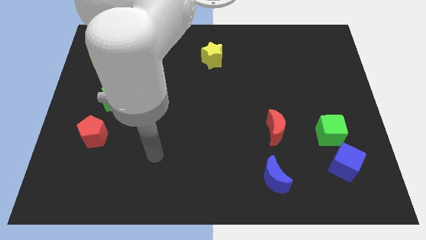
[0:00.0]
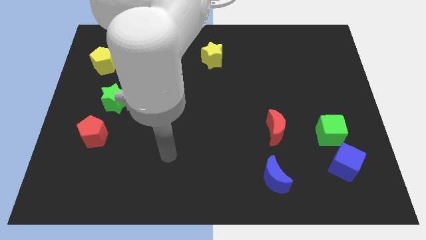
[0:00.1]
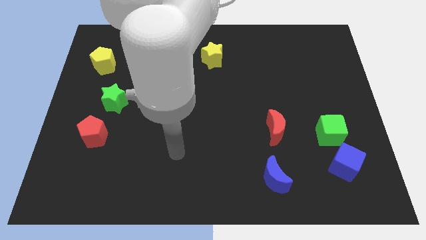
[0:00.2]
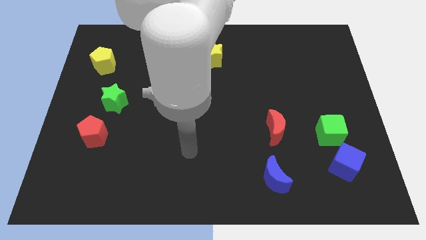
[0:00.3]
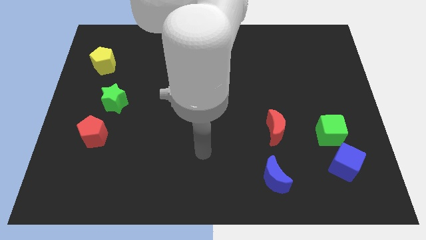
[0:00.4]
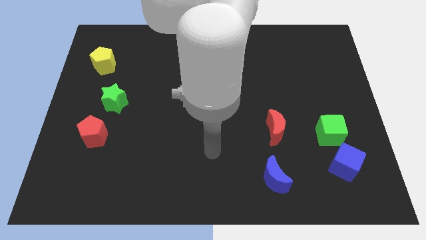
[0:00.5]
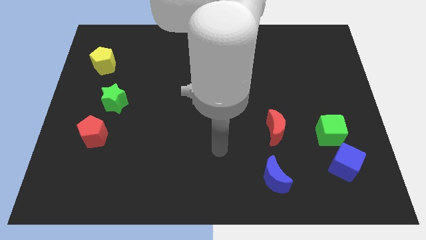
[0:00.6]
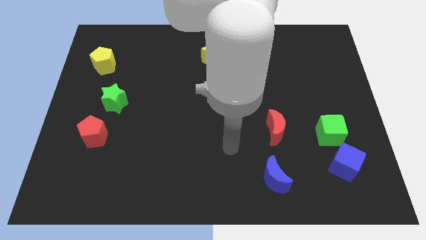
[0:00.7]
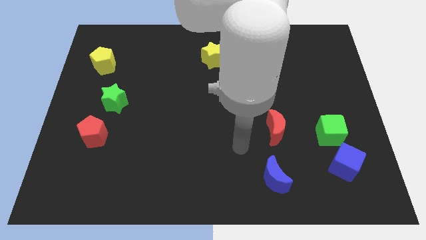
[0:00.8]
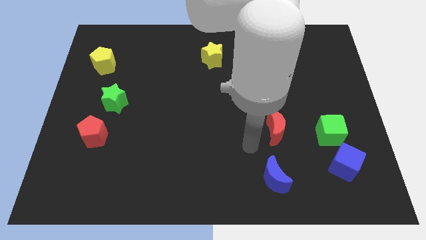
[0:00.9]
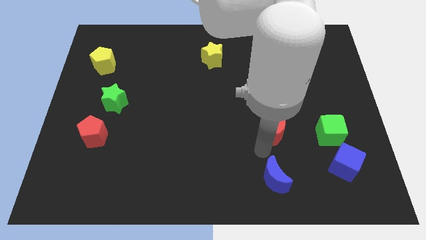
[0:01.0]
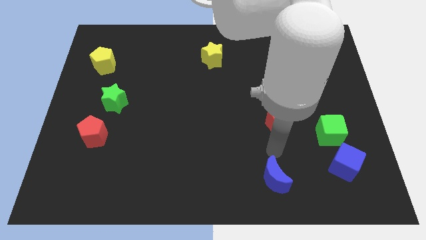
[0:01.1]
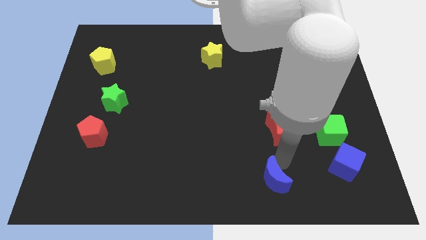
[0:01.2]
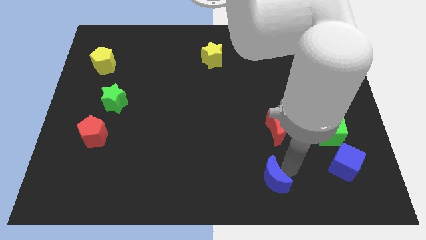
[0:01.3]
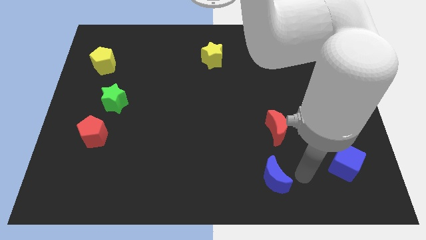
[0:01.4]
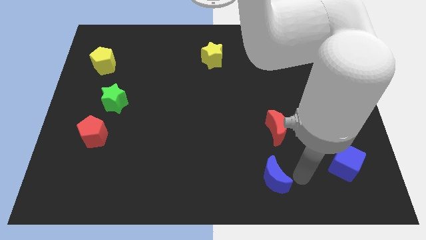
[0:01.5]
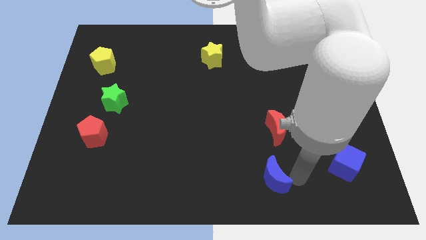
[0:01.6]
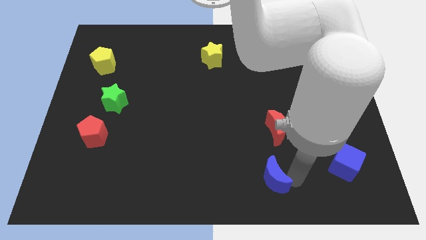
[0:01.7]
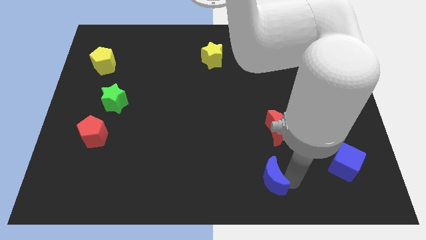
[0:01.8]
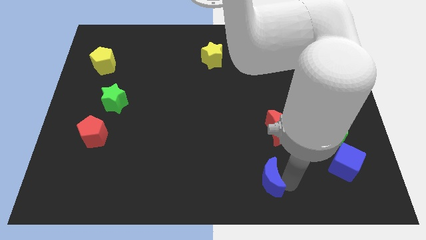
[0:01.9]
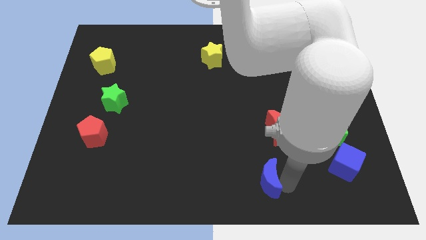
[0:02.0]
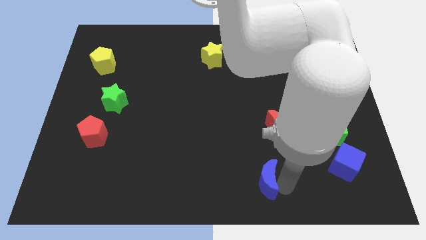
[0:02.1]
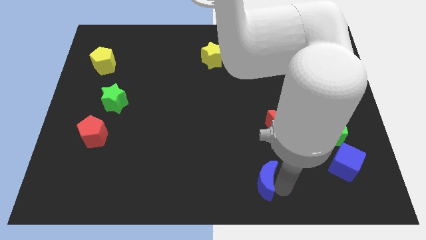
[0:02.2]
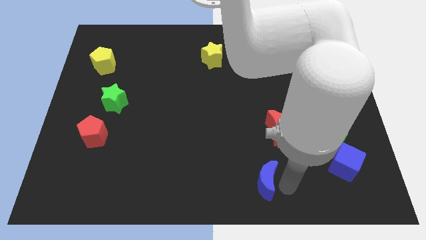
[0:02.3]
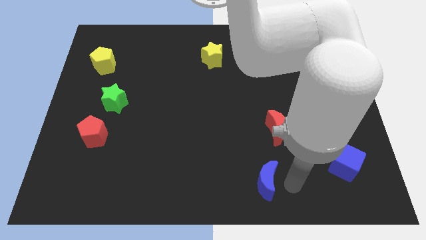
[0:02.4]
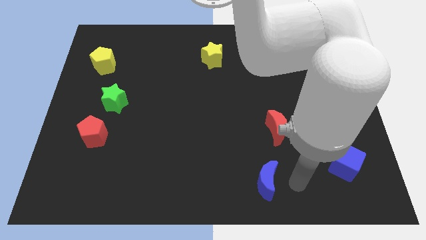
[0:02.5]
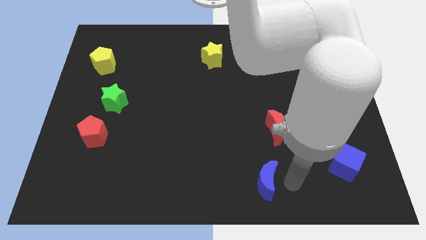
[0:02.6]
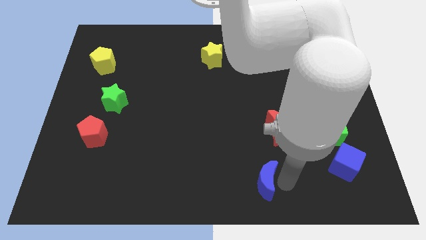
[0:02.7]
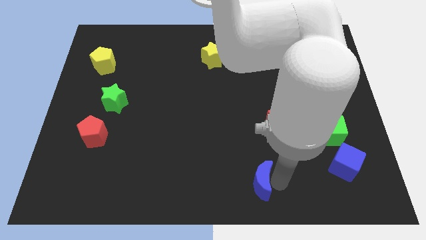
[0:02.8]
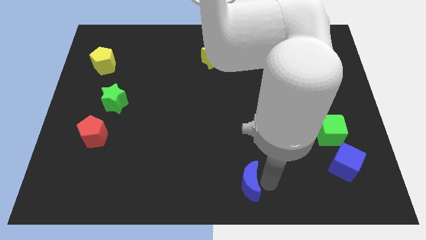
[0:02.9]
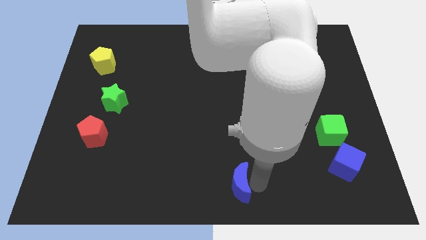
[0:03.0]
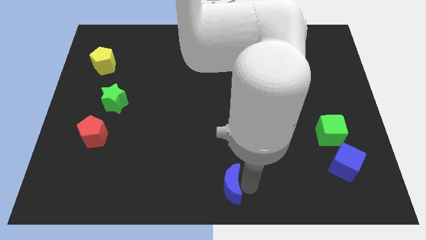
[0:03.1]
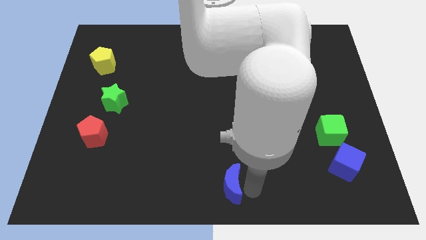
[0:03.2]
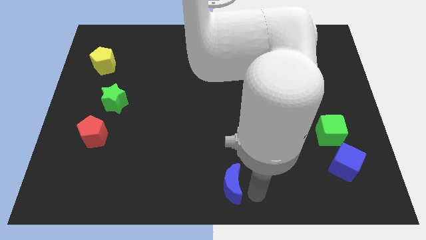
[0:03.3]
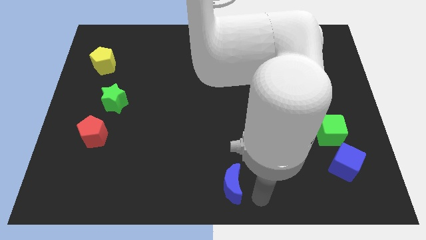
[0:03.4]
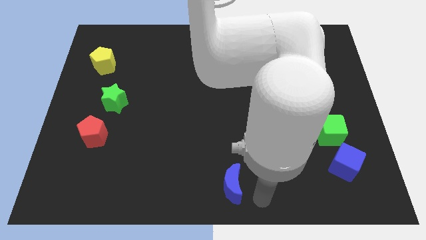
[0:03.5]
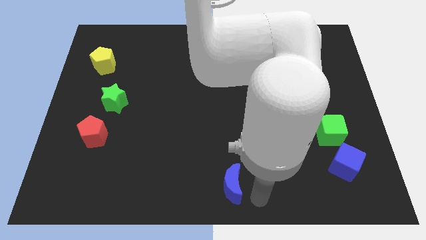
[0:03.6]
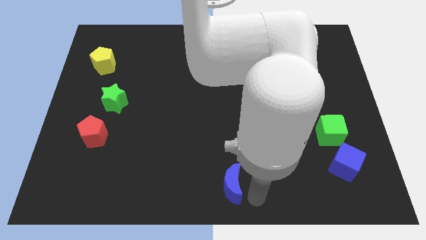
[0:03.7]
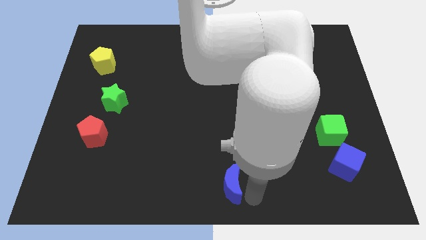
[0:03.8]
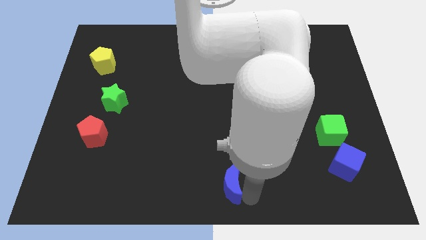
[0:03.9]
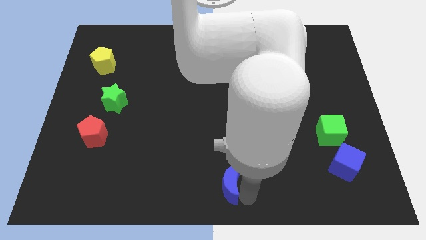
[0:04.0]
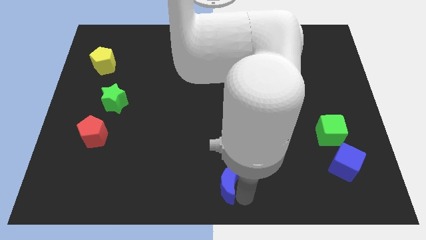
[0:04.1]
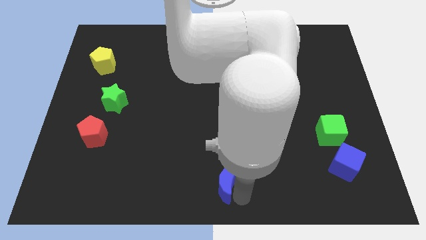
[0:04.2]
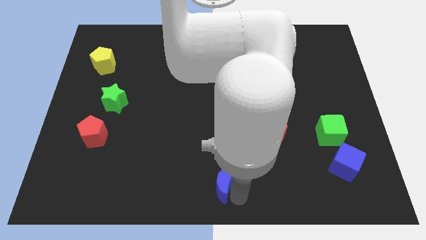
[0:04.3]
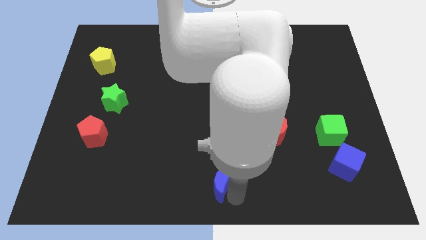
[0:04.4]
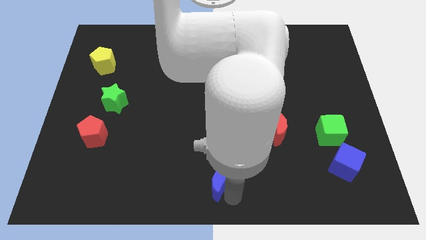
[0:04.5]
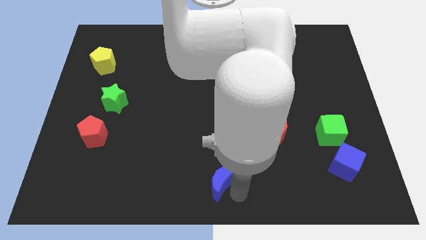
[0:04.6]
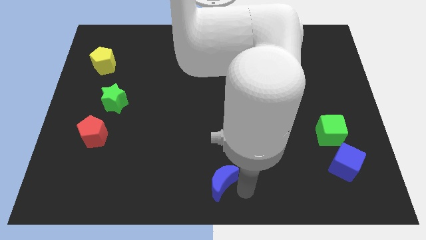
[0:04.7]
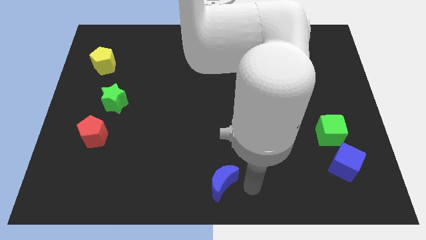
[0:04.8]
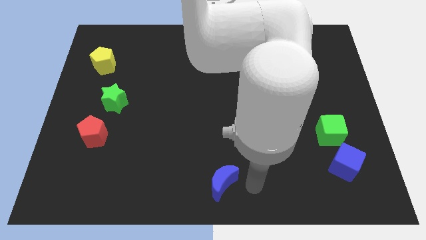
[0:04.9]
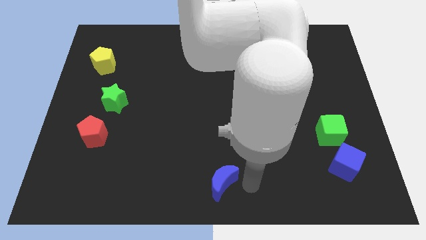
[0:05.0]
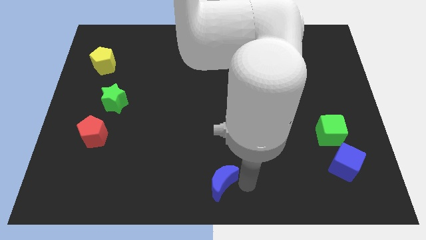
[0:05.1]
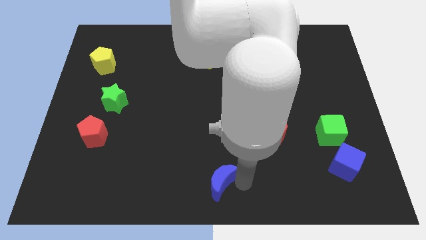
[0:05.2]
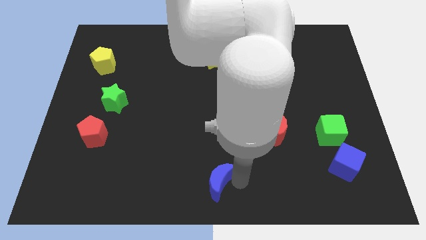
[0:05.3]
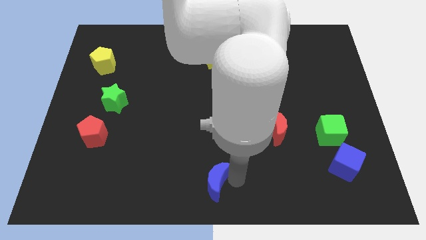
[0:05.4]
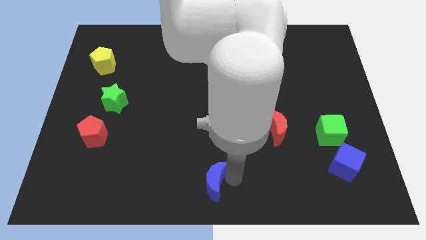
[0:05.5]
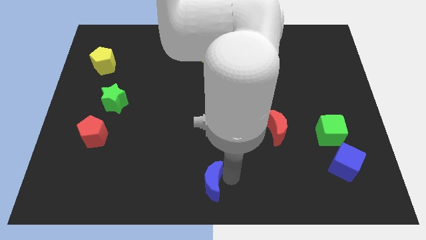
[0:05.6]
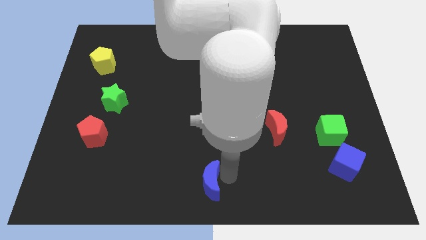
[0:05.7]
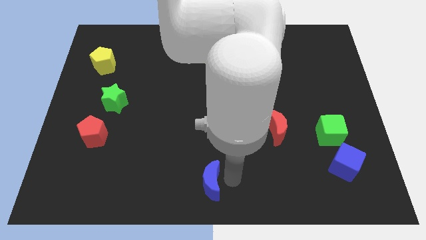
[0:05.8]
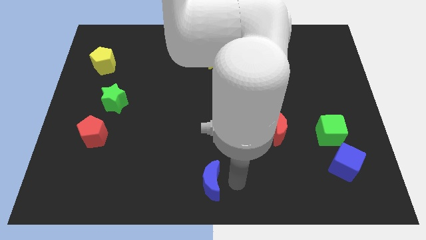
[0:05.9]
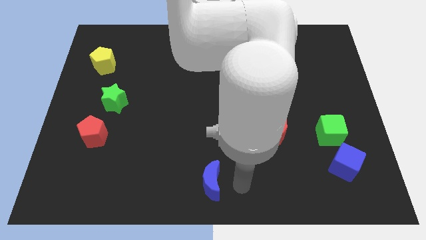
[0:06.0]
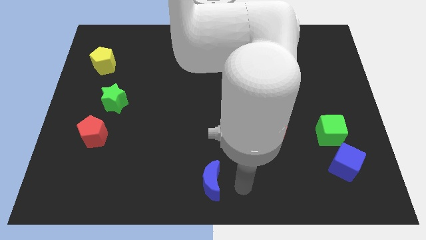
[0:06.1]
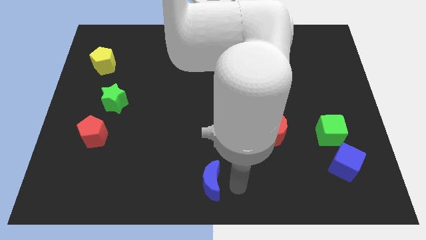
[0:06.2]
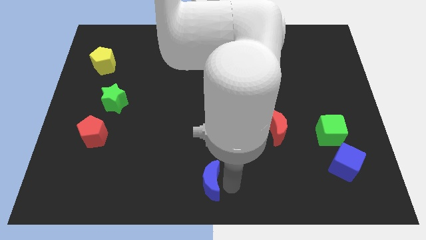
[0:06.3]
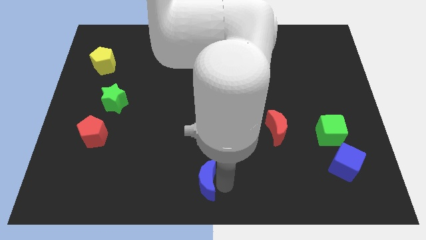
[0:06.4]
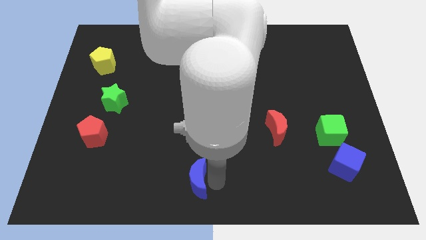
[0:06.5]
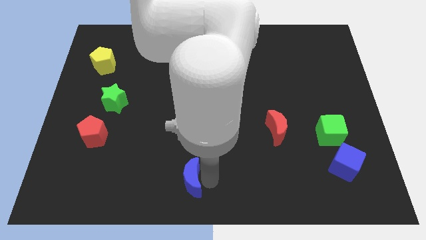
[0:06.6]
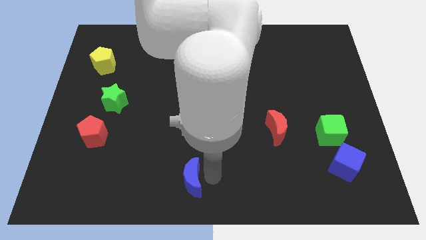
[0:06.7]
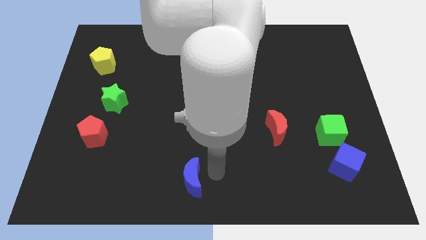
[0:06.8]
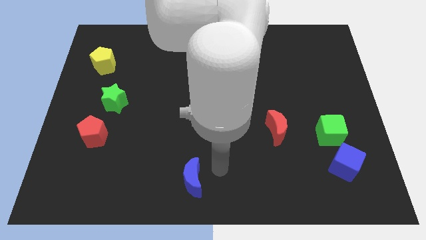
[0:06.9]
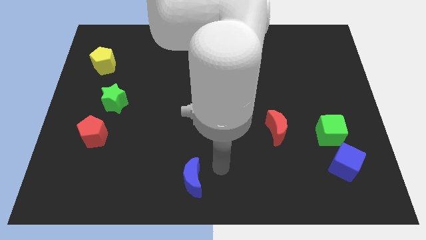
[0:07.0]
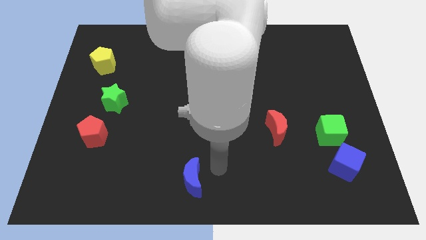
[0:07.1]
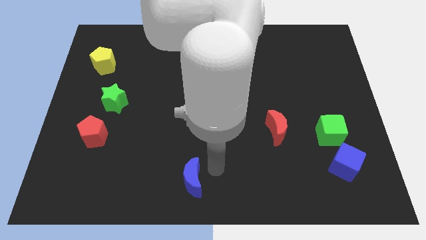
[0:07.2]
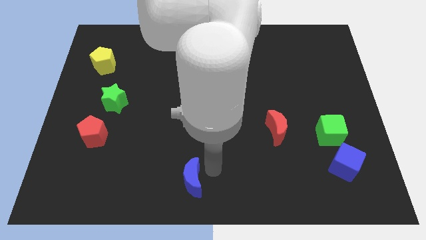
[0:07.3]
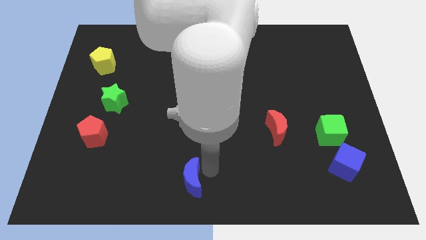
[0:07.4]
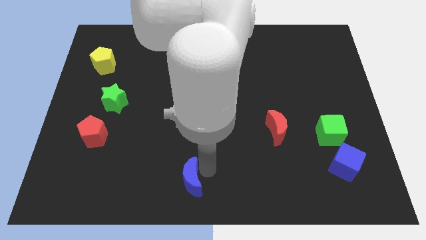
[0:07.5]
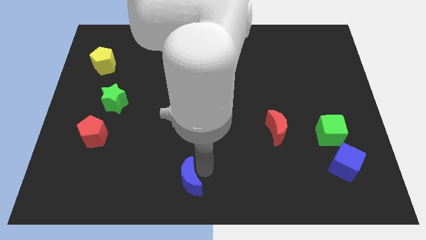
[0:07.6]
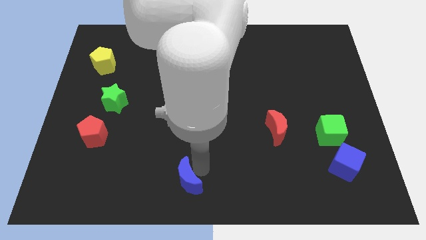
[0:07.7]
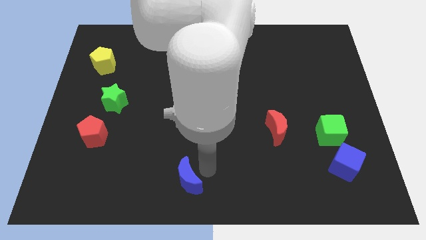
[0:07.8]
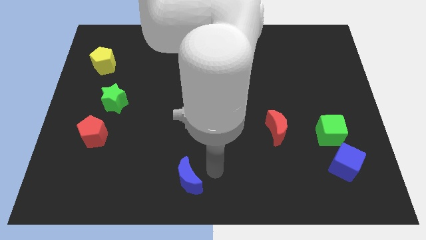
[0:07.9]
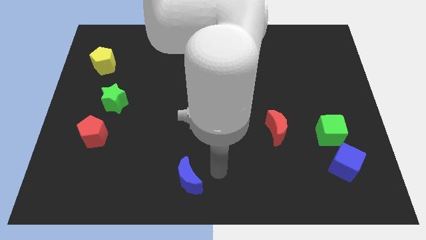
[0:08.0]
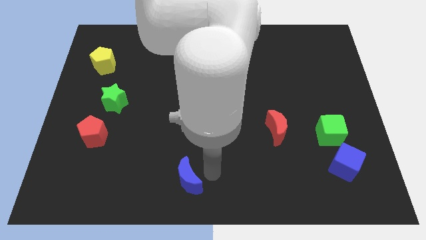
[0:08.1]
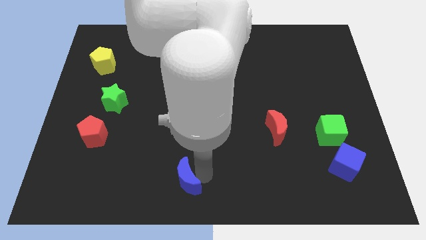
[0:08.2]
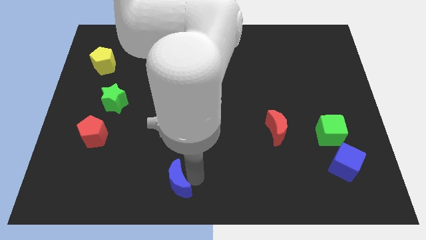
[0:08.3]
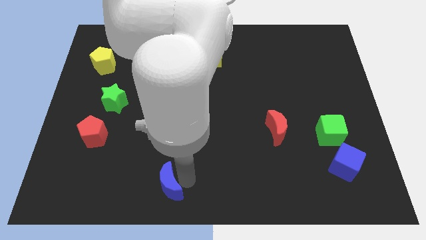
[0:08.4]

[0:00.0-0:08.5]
move the blue moon left
